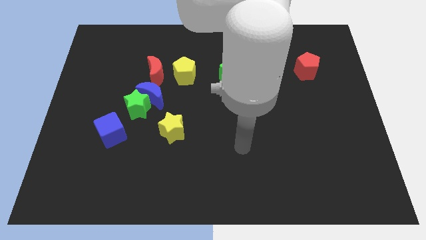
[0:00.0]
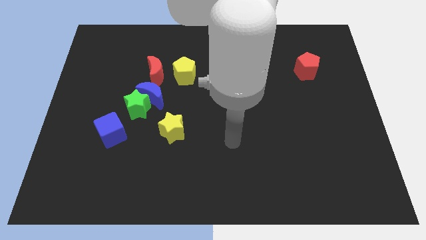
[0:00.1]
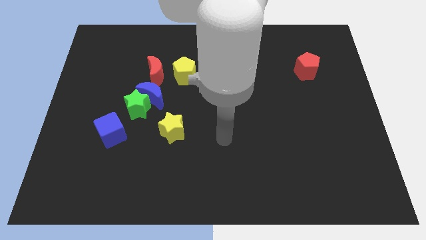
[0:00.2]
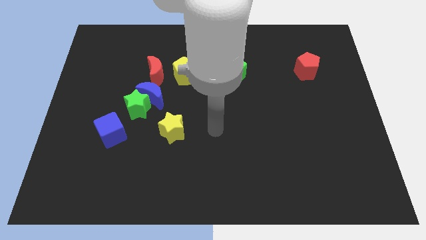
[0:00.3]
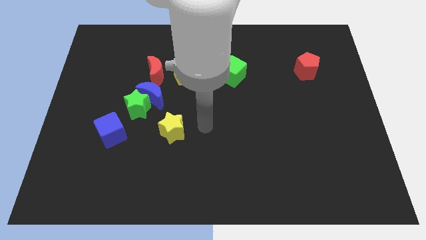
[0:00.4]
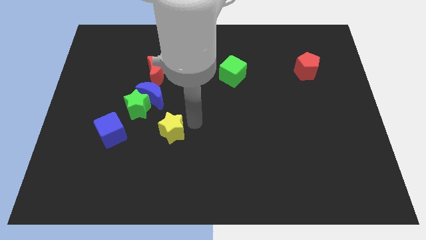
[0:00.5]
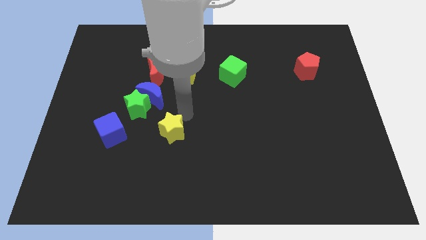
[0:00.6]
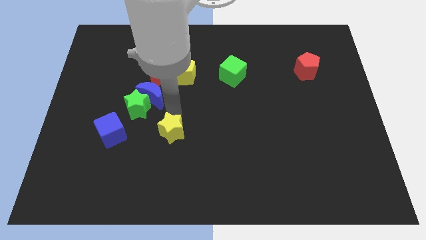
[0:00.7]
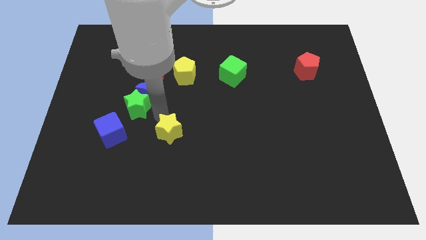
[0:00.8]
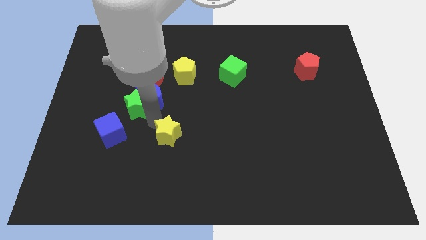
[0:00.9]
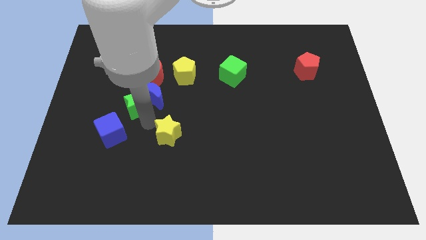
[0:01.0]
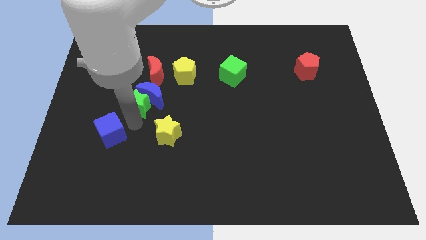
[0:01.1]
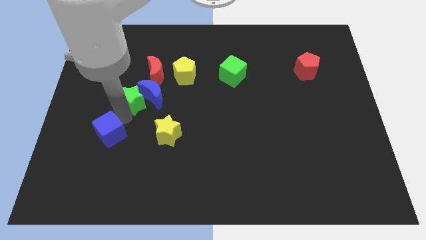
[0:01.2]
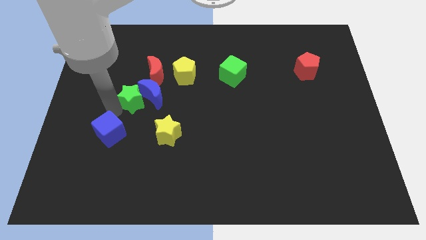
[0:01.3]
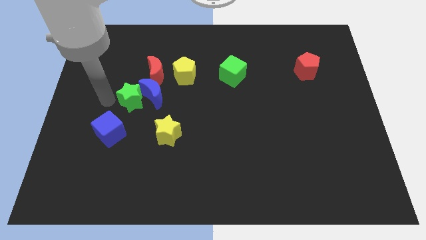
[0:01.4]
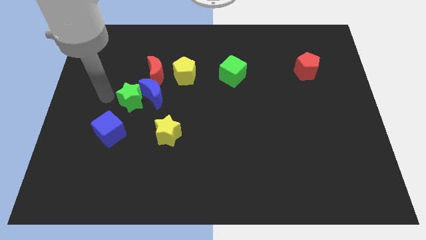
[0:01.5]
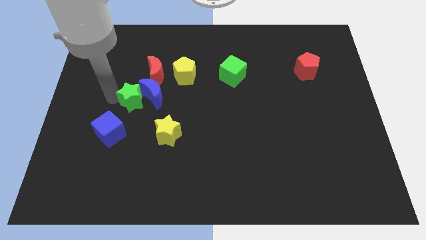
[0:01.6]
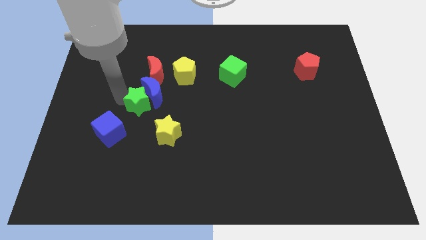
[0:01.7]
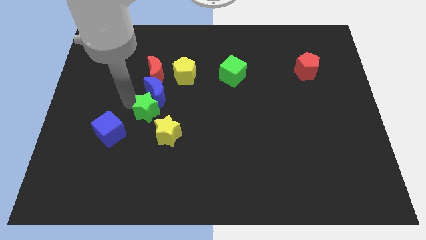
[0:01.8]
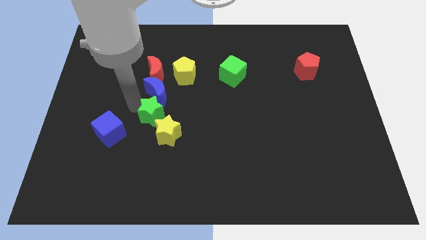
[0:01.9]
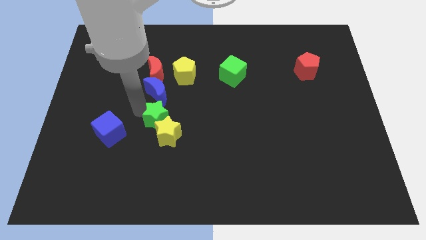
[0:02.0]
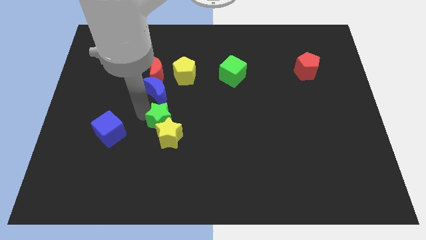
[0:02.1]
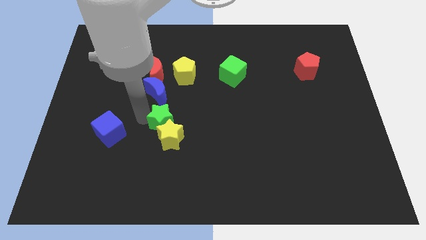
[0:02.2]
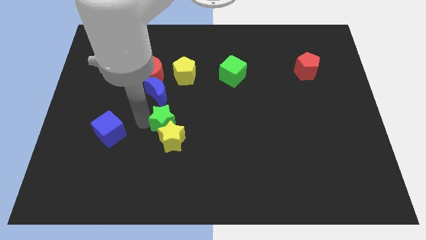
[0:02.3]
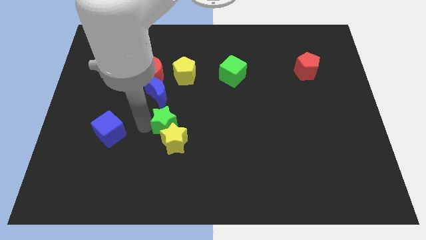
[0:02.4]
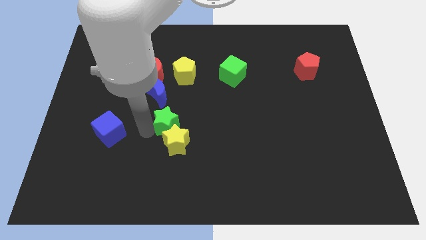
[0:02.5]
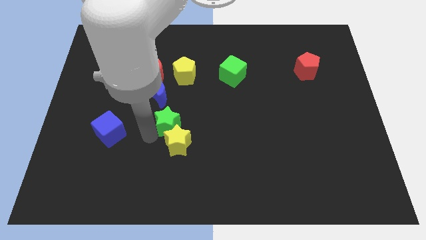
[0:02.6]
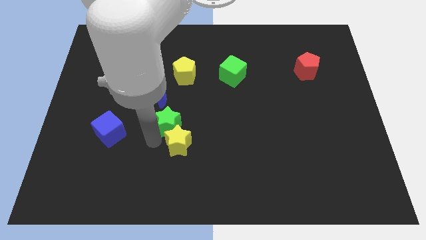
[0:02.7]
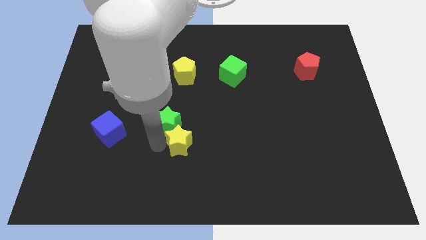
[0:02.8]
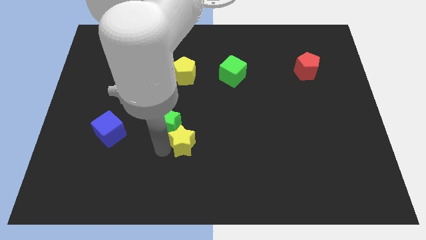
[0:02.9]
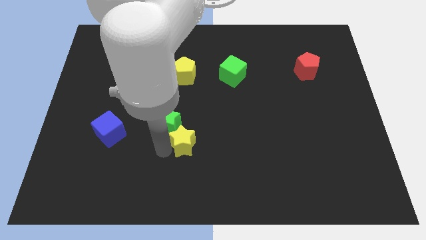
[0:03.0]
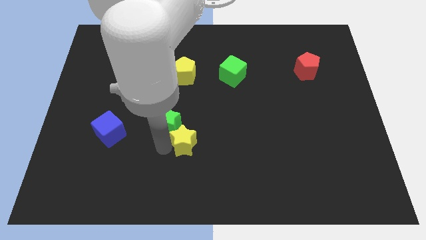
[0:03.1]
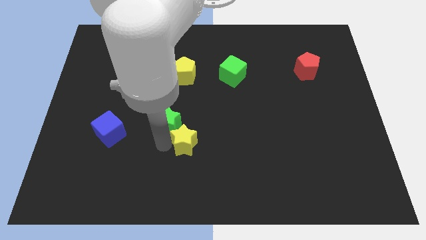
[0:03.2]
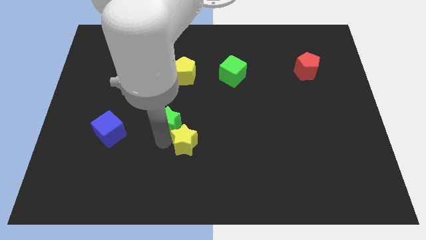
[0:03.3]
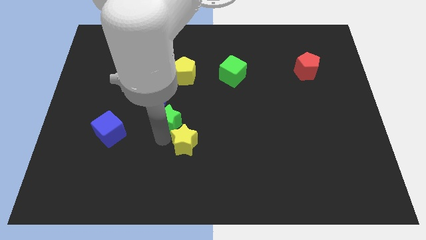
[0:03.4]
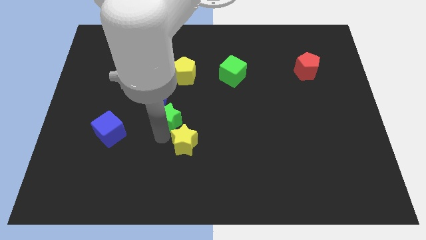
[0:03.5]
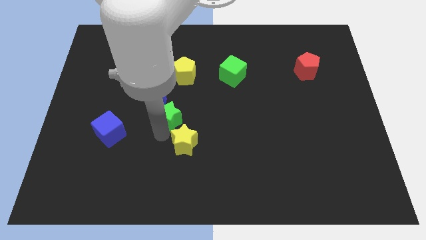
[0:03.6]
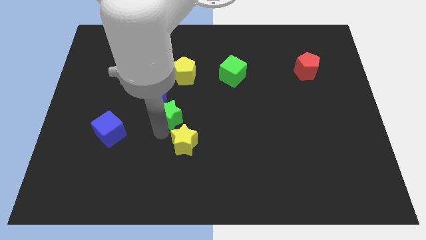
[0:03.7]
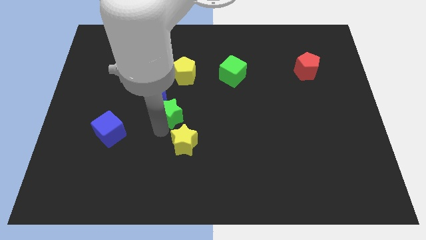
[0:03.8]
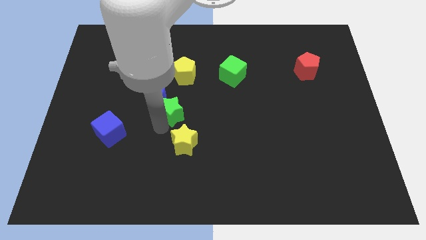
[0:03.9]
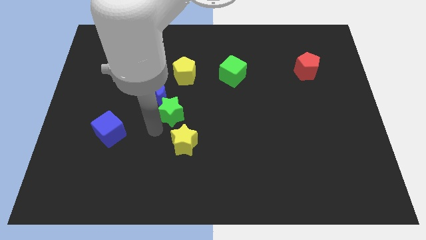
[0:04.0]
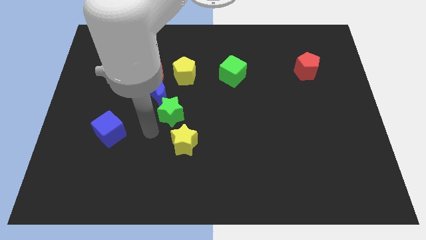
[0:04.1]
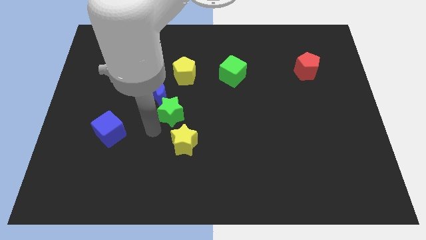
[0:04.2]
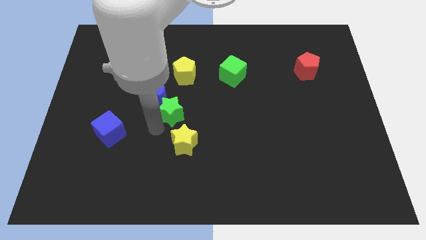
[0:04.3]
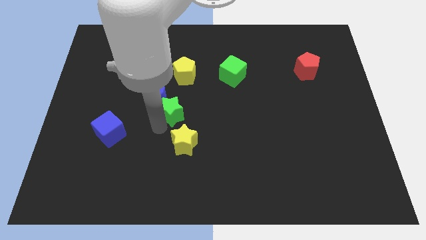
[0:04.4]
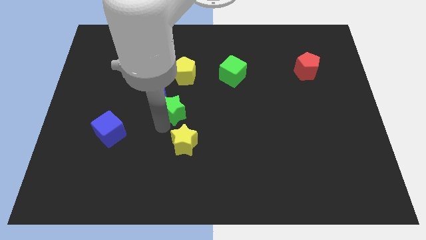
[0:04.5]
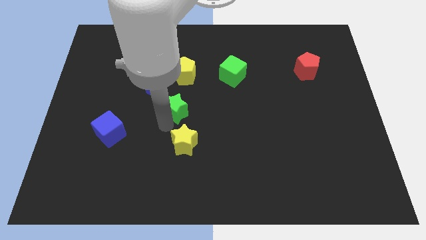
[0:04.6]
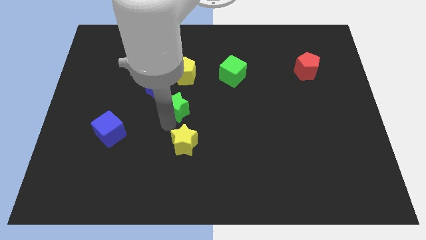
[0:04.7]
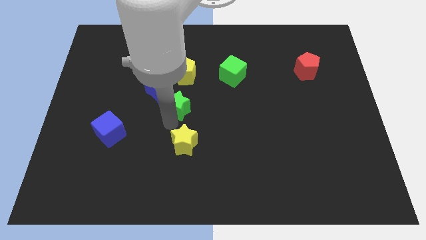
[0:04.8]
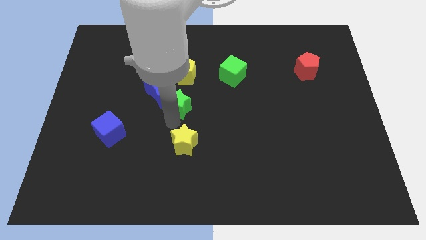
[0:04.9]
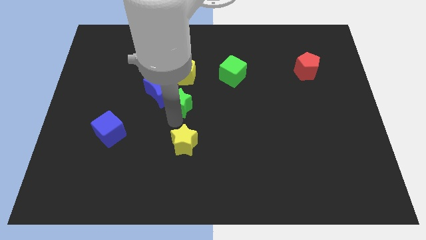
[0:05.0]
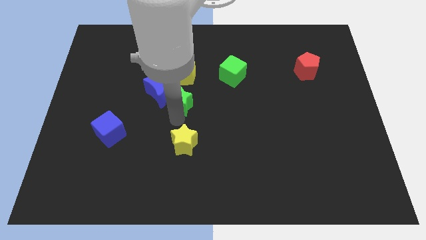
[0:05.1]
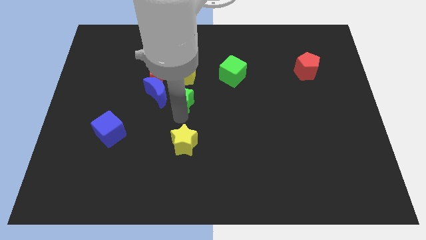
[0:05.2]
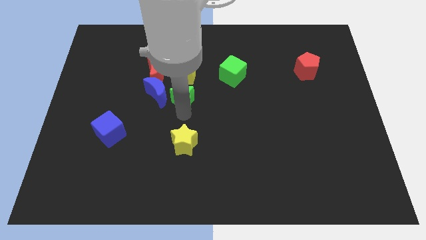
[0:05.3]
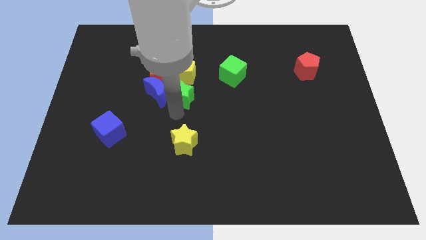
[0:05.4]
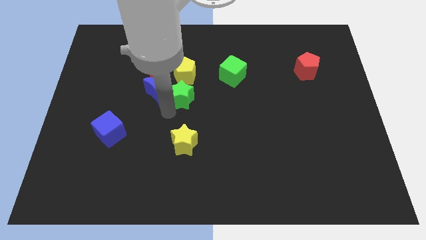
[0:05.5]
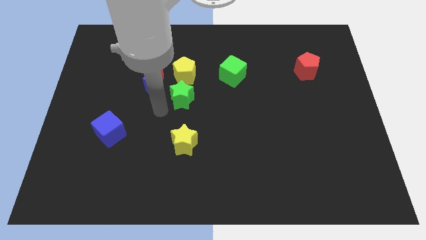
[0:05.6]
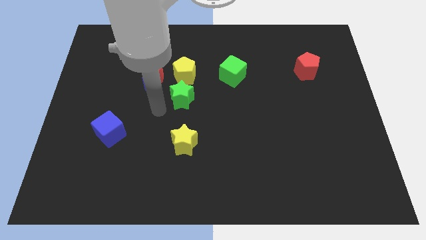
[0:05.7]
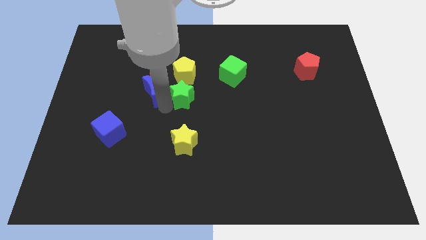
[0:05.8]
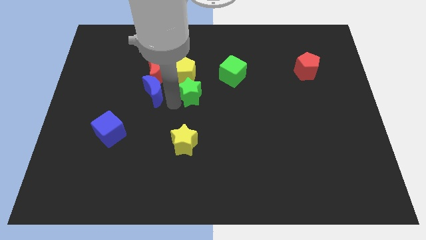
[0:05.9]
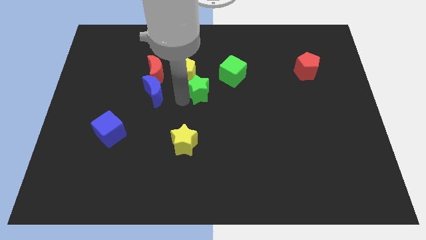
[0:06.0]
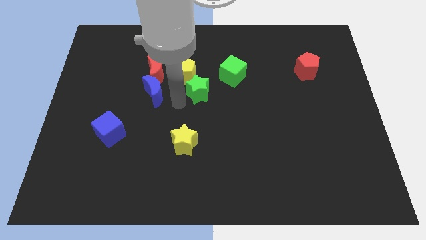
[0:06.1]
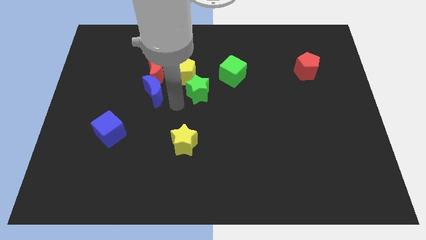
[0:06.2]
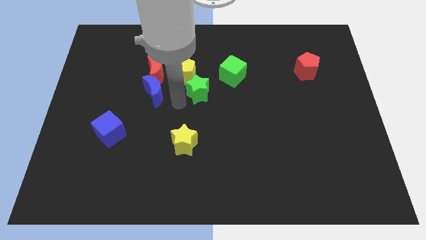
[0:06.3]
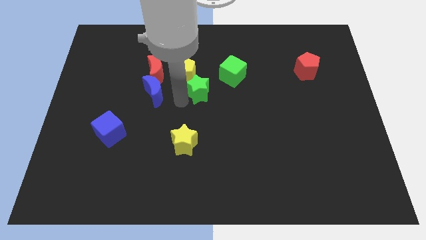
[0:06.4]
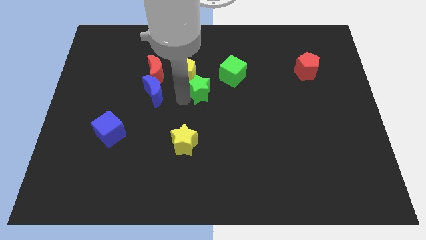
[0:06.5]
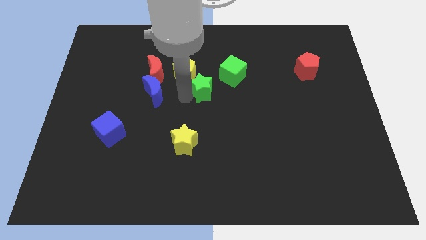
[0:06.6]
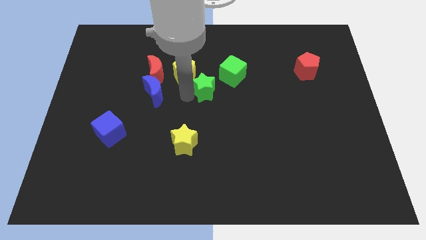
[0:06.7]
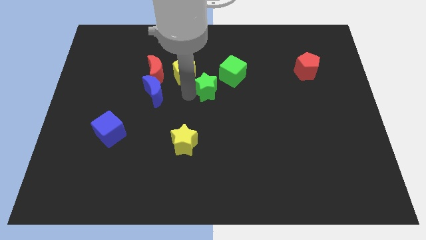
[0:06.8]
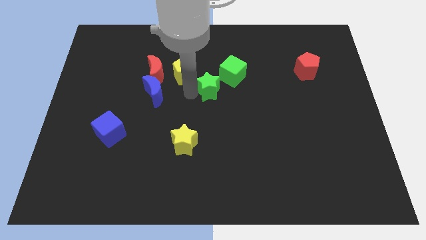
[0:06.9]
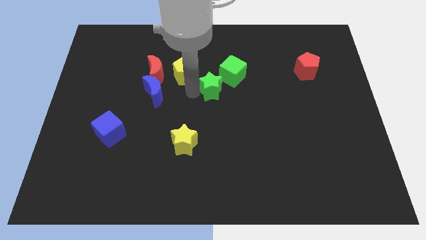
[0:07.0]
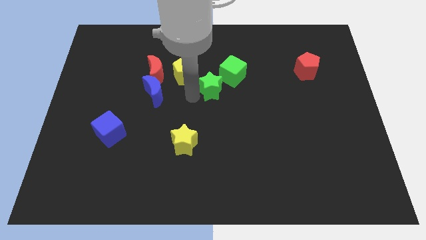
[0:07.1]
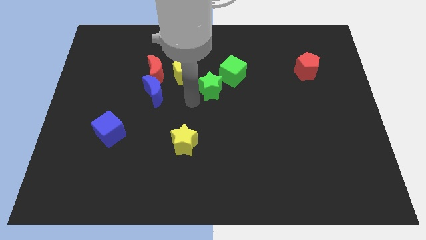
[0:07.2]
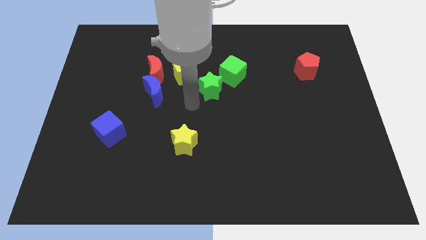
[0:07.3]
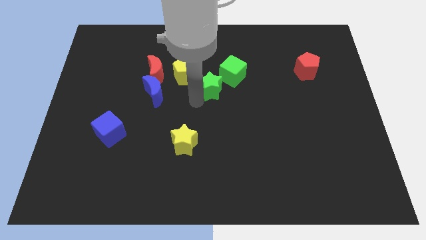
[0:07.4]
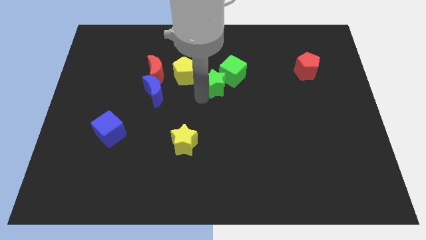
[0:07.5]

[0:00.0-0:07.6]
slide the green star to the green cube
